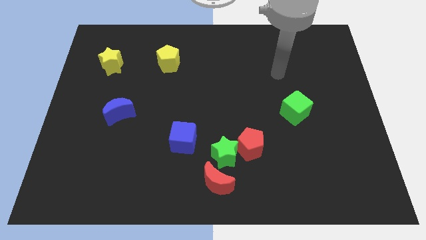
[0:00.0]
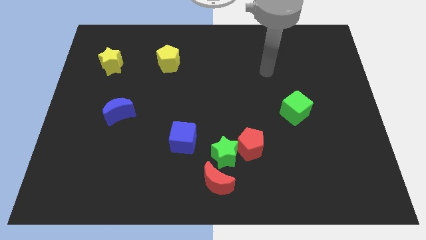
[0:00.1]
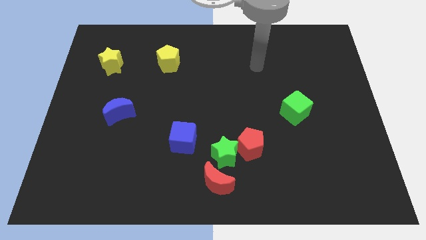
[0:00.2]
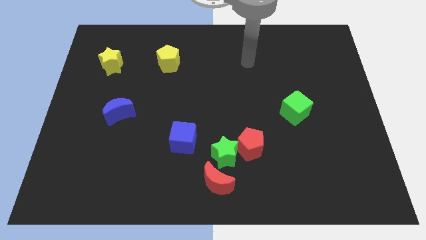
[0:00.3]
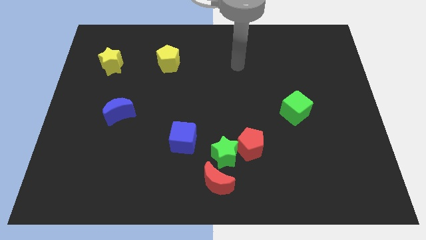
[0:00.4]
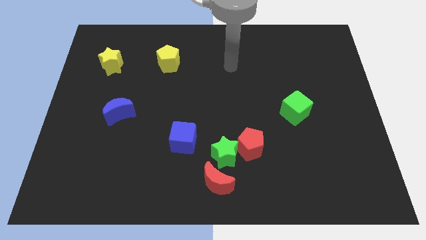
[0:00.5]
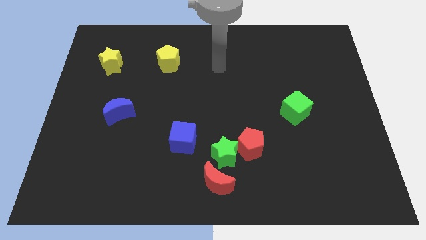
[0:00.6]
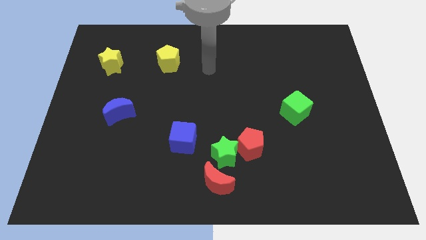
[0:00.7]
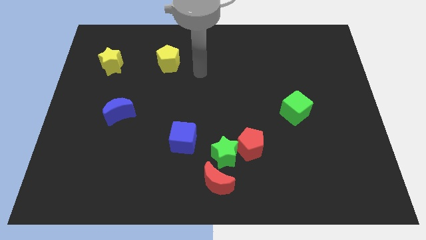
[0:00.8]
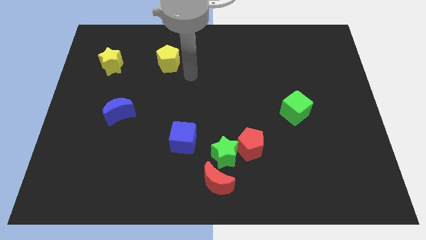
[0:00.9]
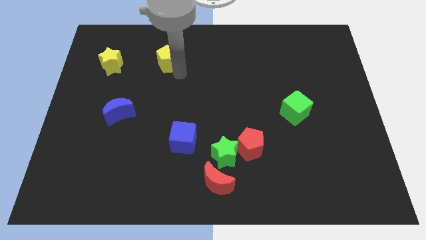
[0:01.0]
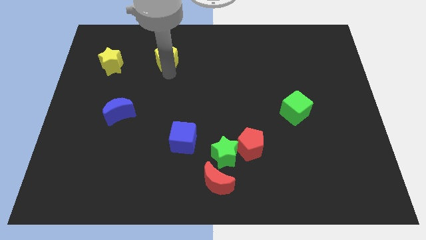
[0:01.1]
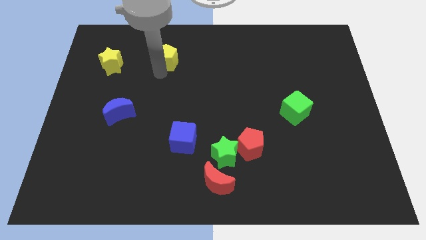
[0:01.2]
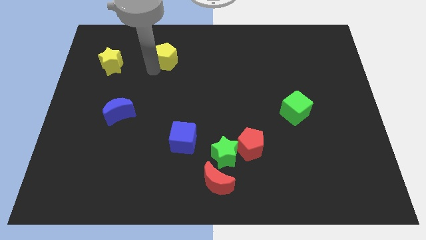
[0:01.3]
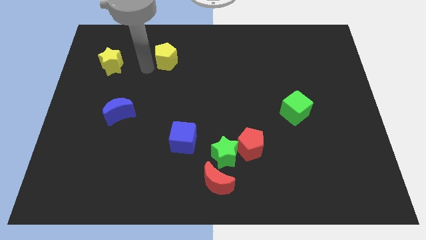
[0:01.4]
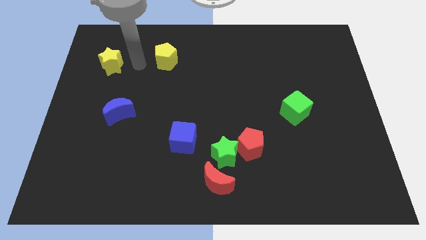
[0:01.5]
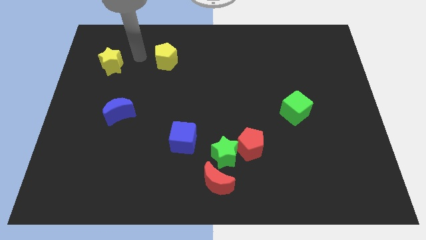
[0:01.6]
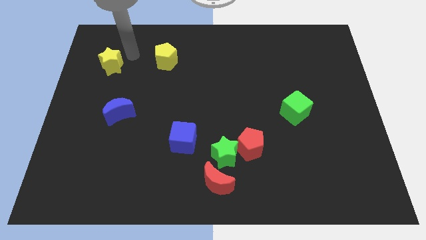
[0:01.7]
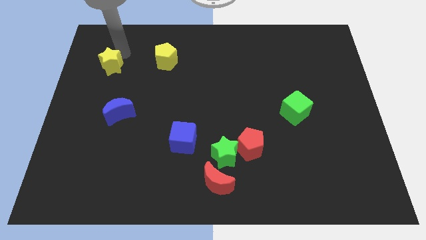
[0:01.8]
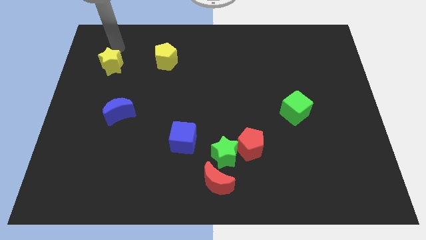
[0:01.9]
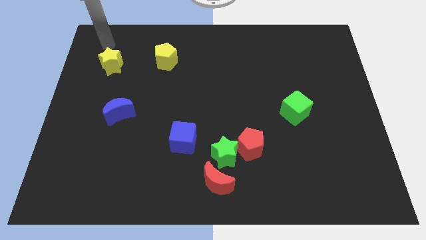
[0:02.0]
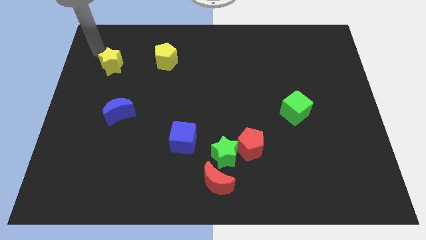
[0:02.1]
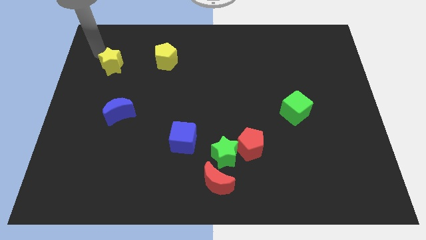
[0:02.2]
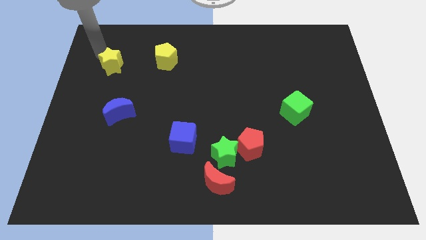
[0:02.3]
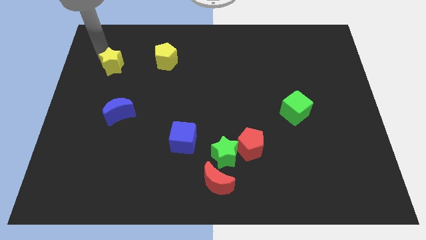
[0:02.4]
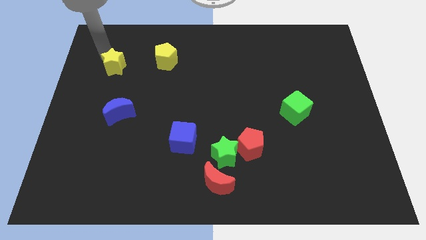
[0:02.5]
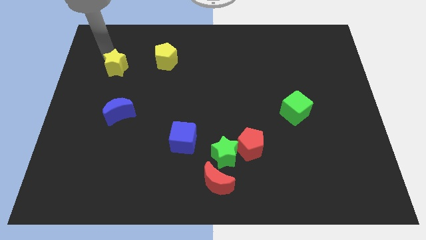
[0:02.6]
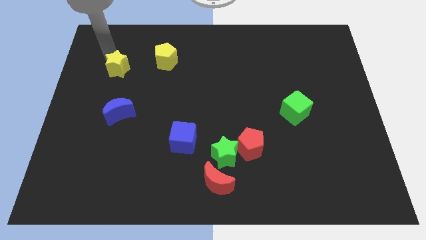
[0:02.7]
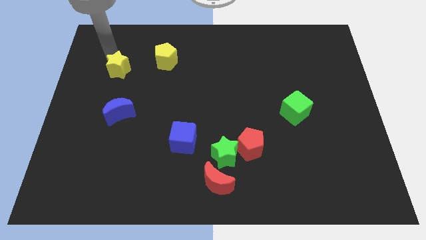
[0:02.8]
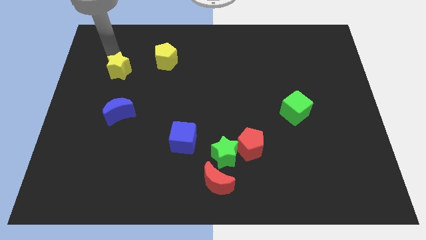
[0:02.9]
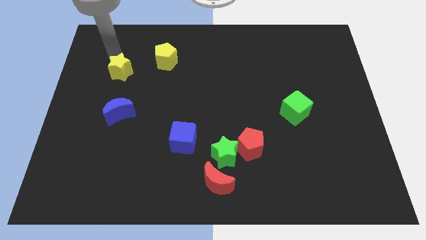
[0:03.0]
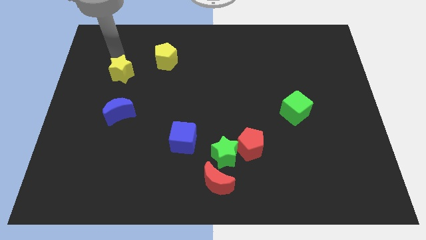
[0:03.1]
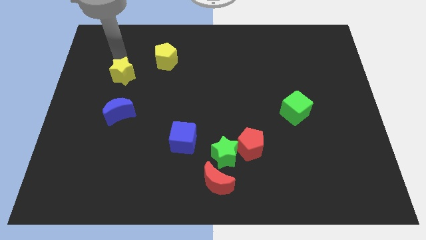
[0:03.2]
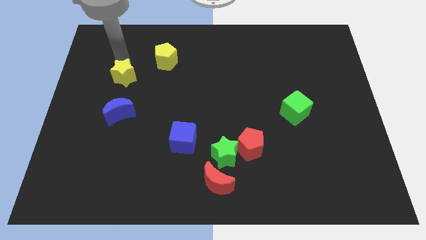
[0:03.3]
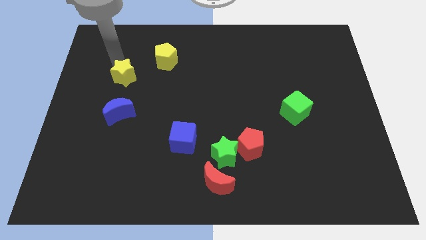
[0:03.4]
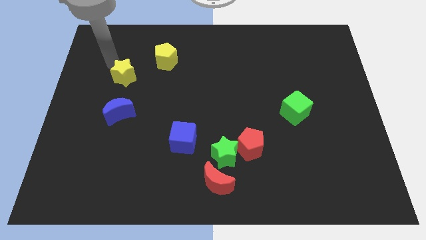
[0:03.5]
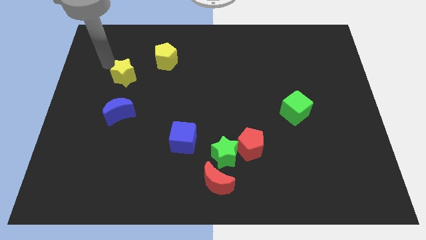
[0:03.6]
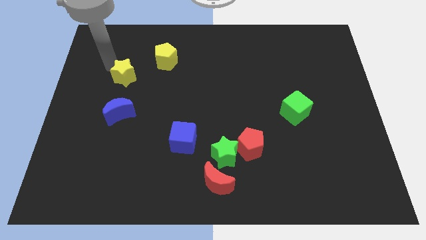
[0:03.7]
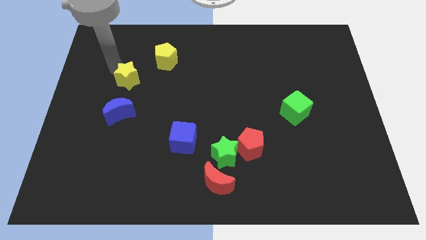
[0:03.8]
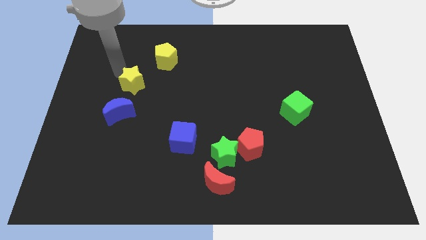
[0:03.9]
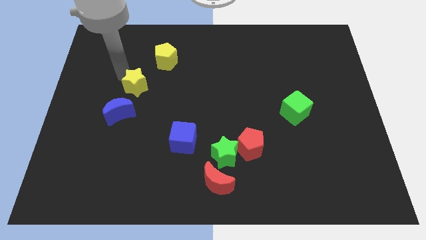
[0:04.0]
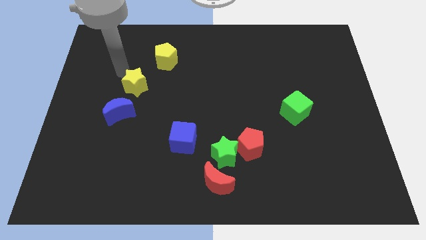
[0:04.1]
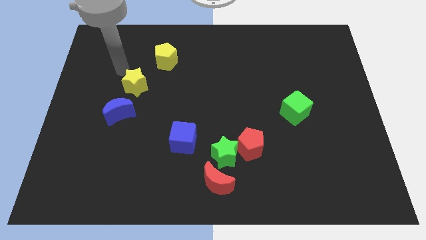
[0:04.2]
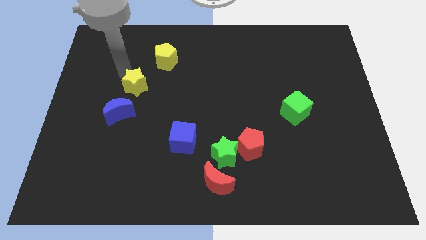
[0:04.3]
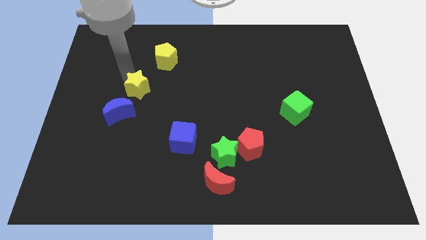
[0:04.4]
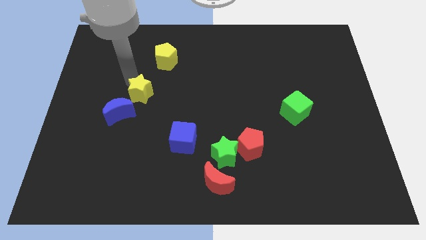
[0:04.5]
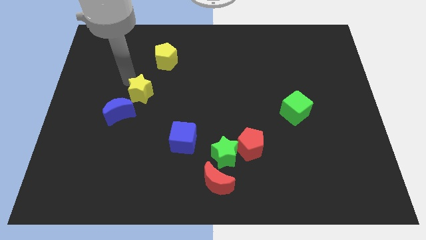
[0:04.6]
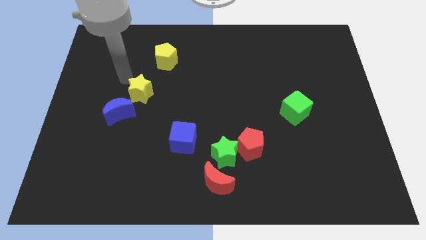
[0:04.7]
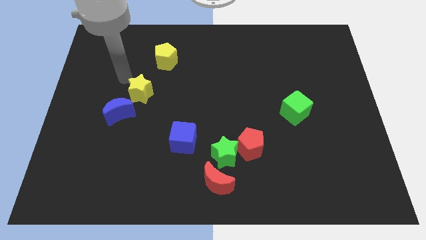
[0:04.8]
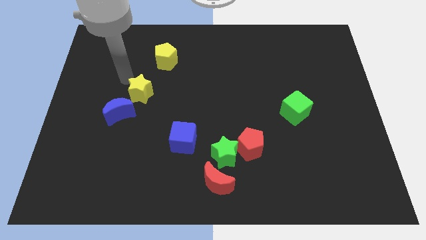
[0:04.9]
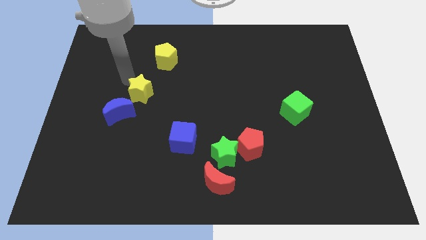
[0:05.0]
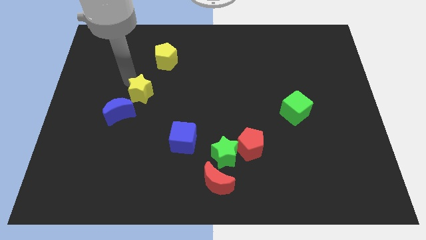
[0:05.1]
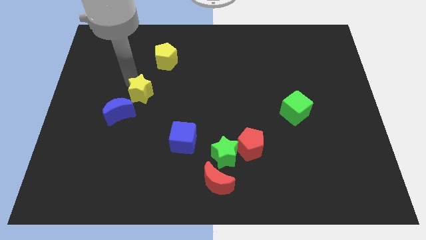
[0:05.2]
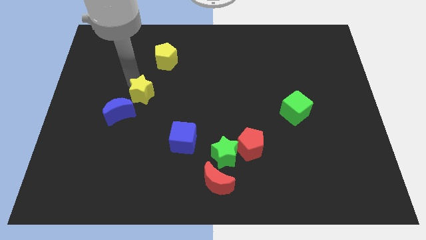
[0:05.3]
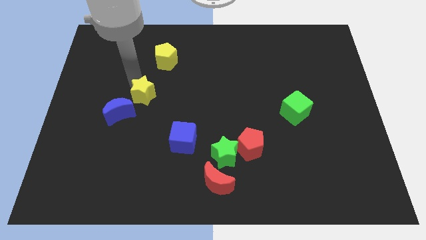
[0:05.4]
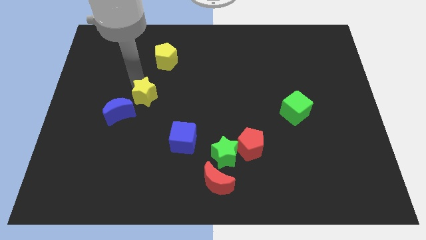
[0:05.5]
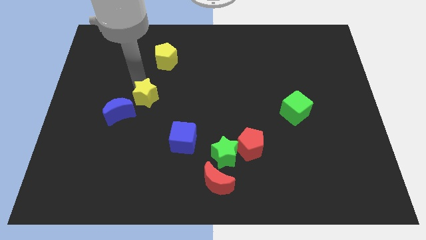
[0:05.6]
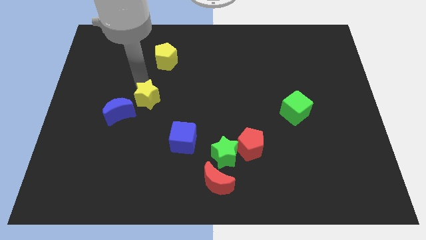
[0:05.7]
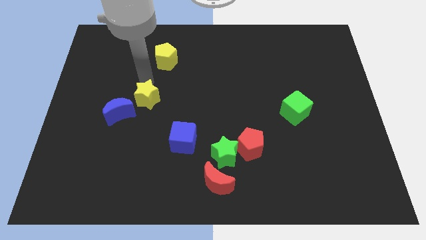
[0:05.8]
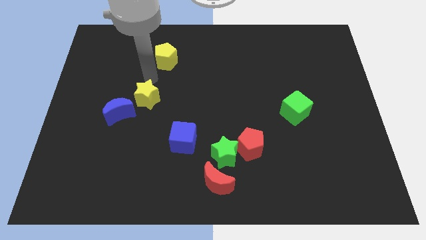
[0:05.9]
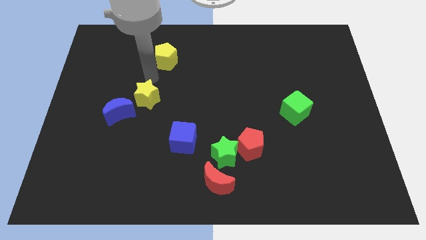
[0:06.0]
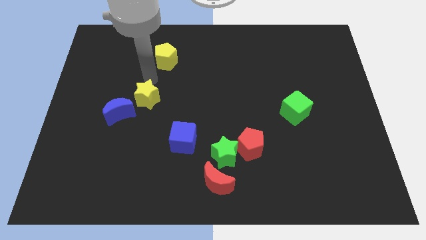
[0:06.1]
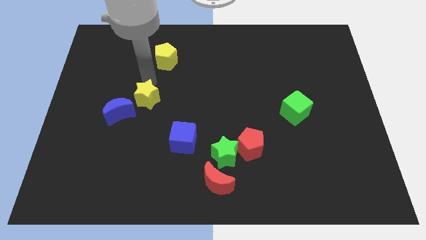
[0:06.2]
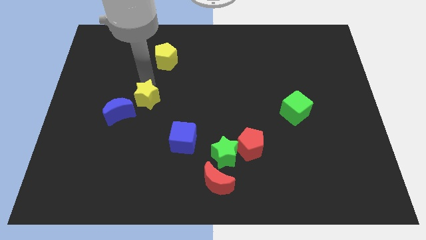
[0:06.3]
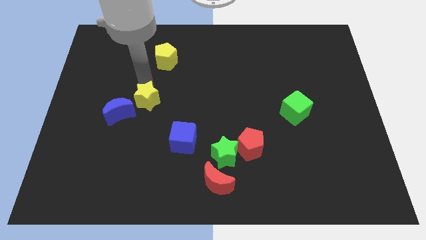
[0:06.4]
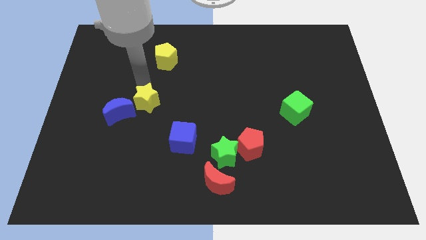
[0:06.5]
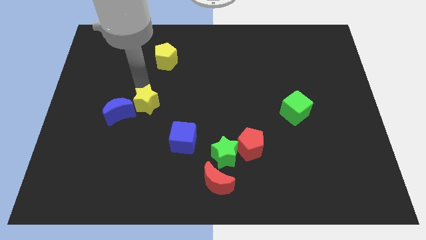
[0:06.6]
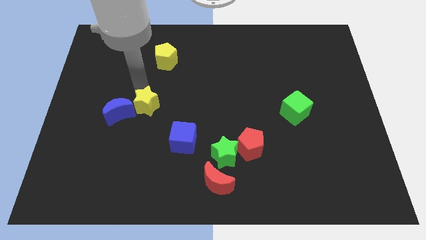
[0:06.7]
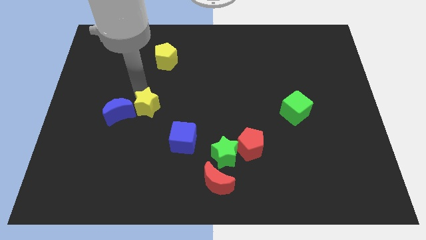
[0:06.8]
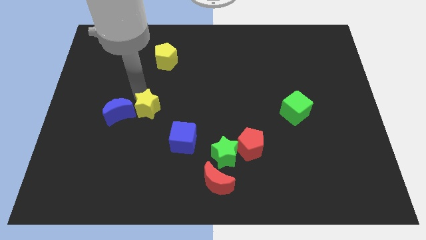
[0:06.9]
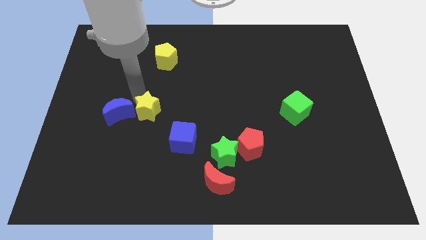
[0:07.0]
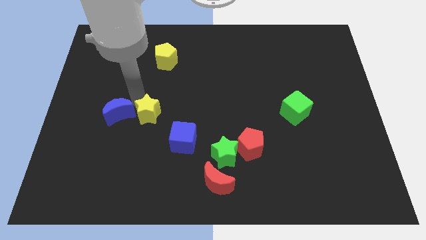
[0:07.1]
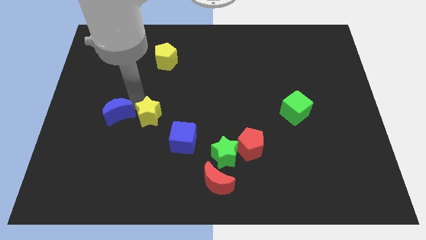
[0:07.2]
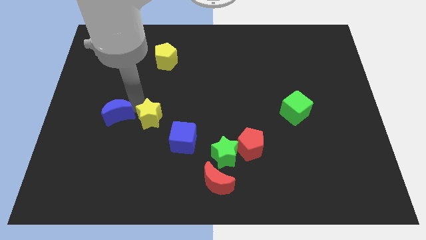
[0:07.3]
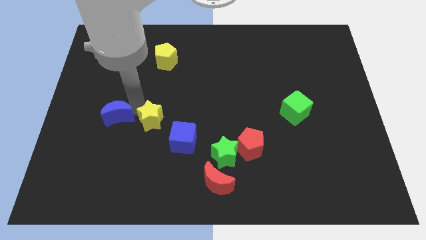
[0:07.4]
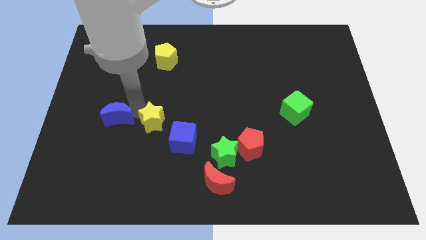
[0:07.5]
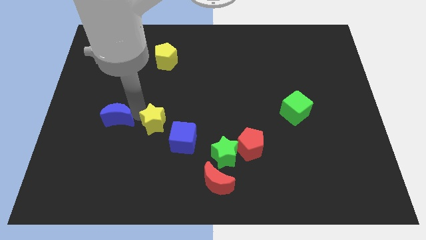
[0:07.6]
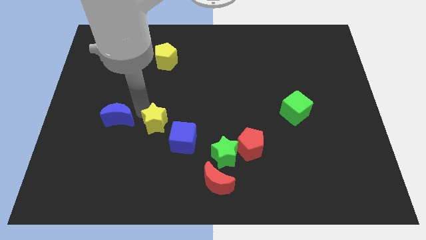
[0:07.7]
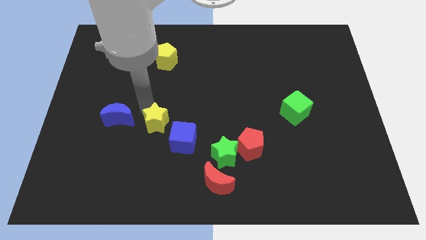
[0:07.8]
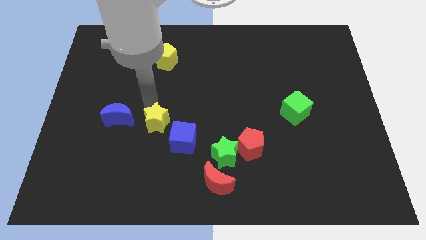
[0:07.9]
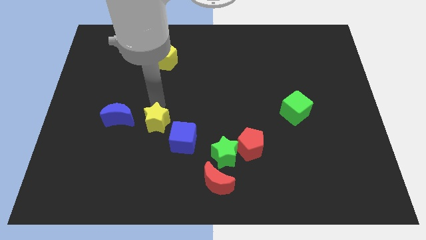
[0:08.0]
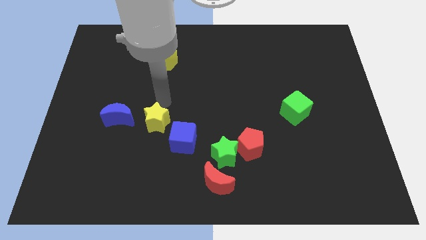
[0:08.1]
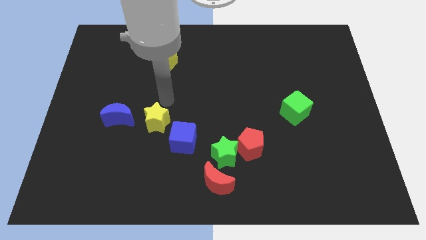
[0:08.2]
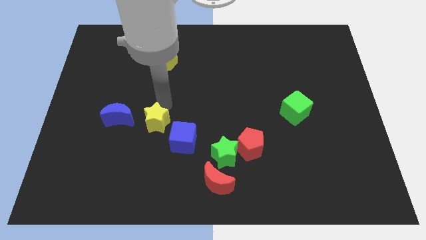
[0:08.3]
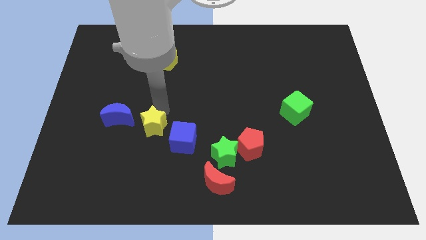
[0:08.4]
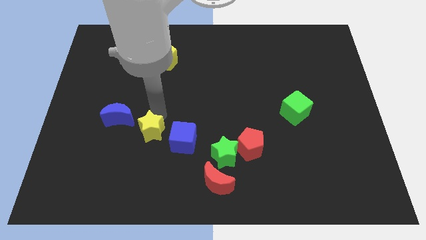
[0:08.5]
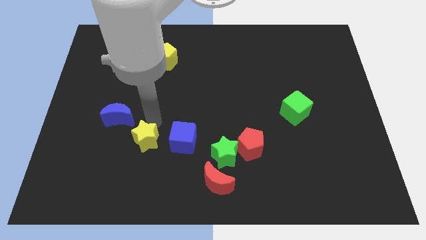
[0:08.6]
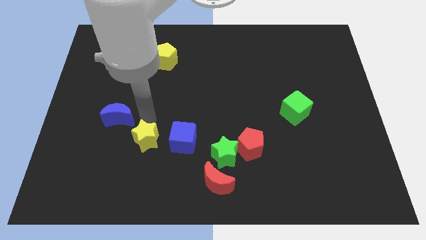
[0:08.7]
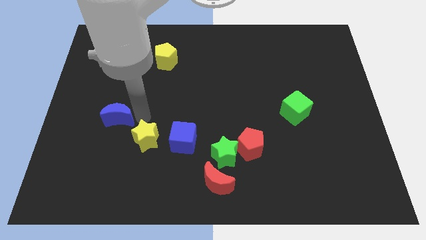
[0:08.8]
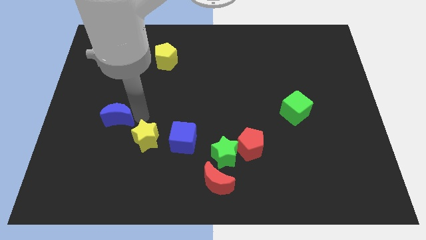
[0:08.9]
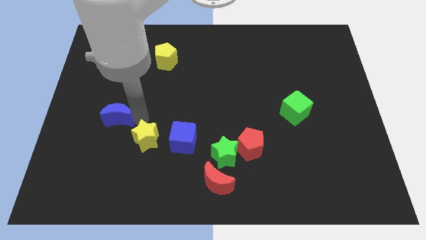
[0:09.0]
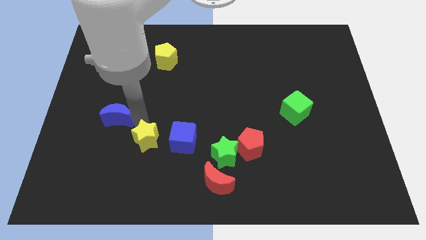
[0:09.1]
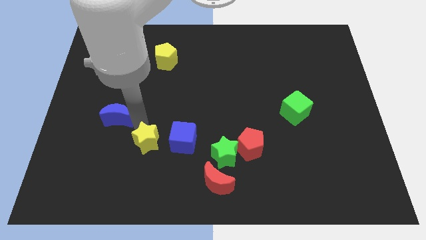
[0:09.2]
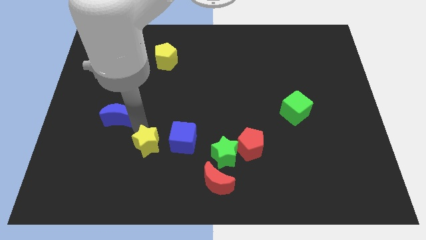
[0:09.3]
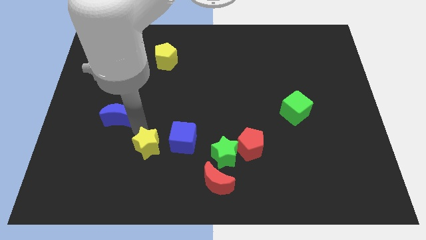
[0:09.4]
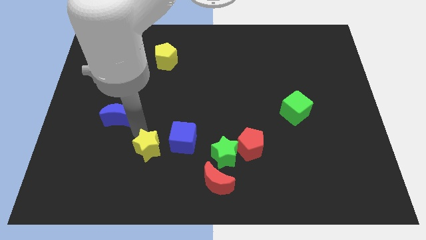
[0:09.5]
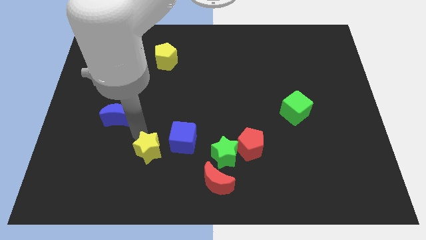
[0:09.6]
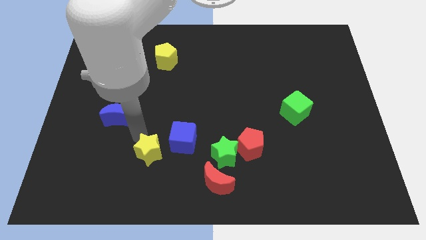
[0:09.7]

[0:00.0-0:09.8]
move the yellow star to the left of the green star
